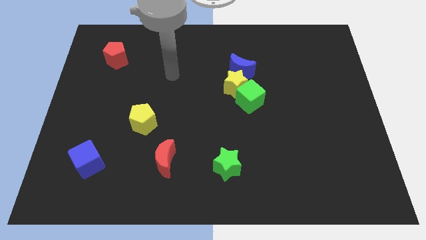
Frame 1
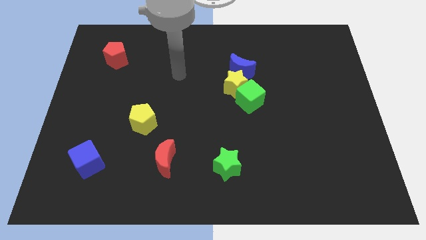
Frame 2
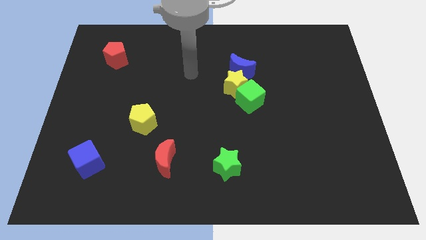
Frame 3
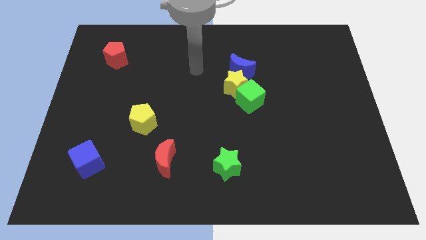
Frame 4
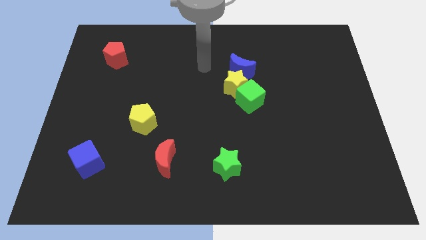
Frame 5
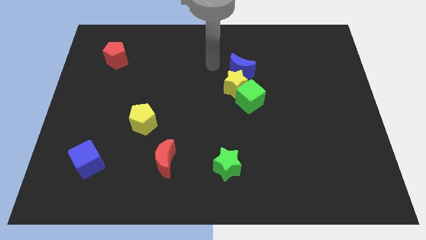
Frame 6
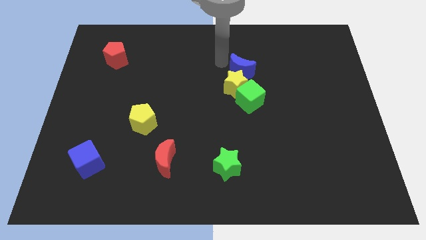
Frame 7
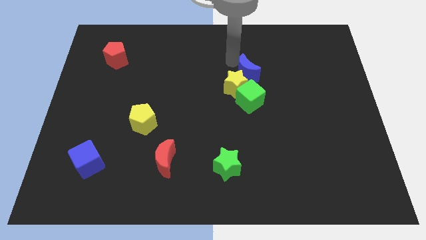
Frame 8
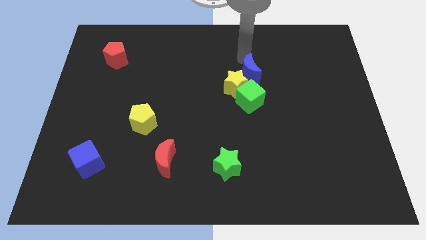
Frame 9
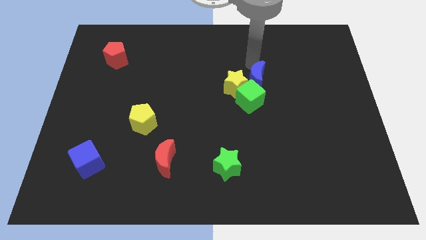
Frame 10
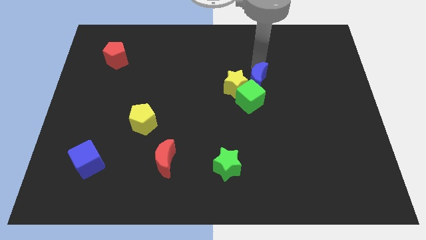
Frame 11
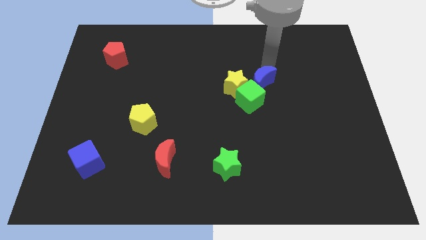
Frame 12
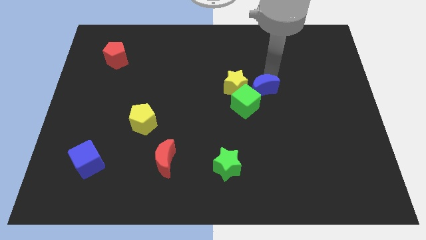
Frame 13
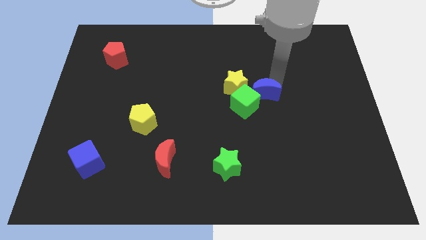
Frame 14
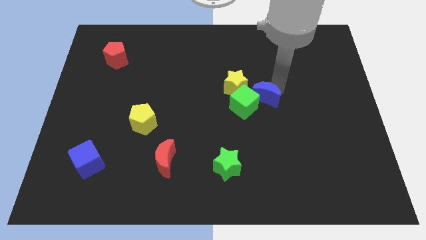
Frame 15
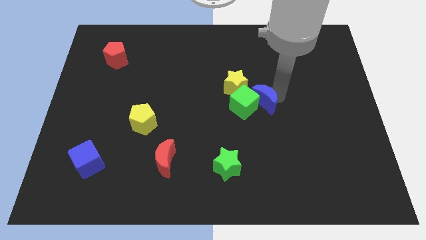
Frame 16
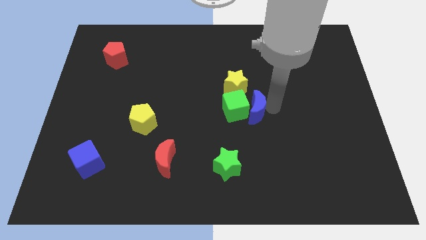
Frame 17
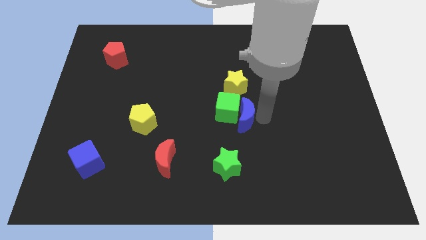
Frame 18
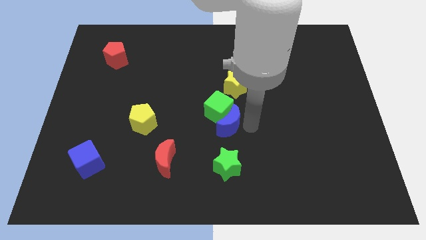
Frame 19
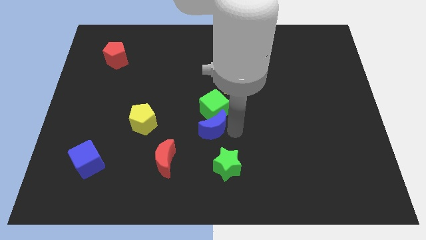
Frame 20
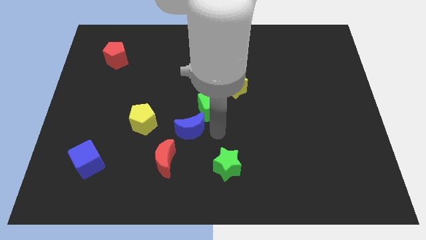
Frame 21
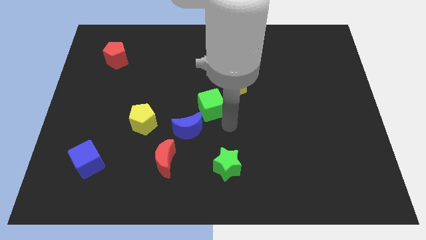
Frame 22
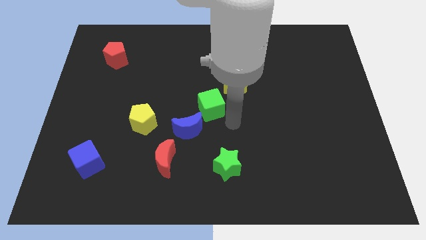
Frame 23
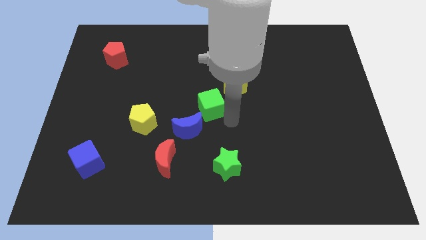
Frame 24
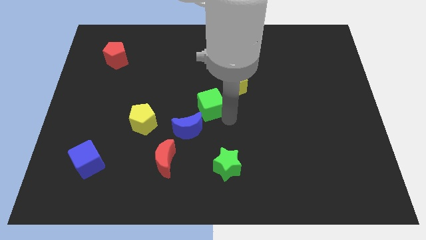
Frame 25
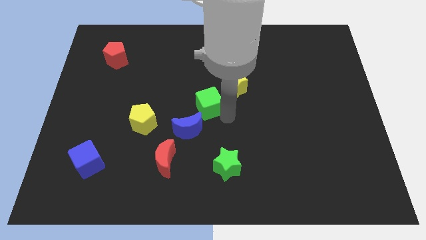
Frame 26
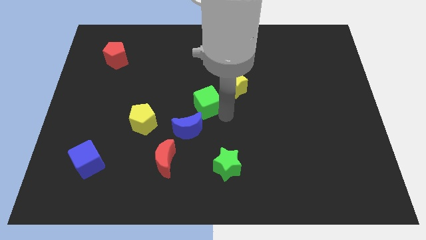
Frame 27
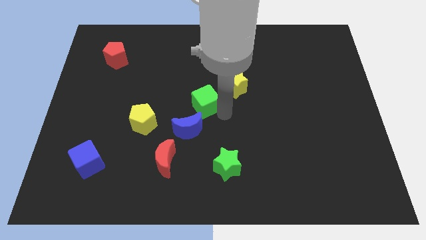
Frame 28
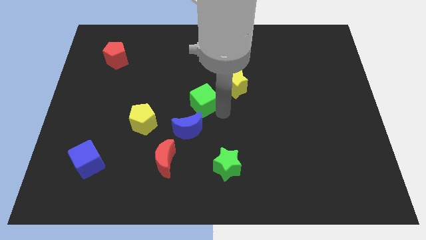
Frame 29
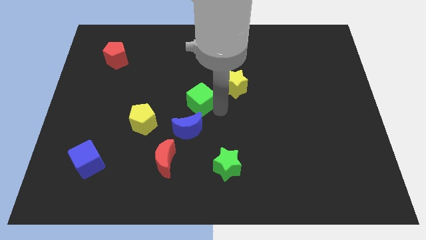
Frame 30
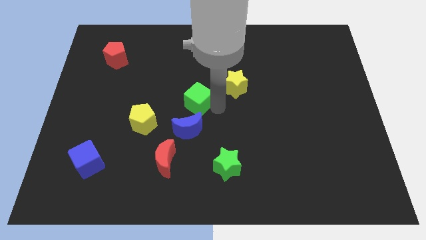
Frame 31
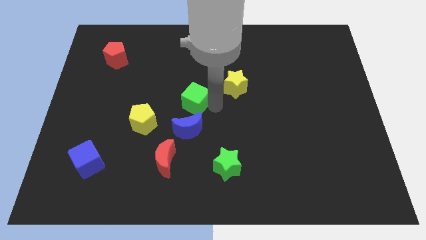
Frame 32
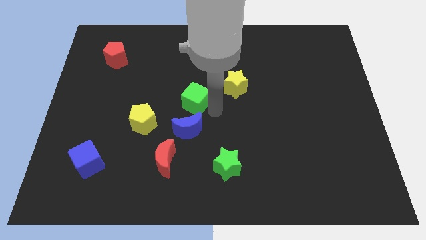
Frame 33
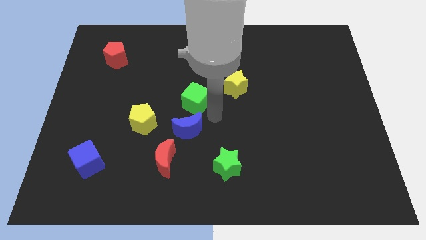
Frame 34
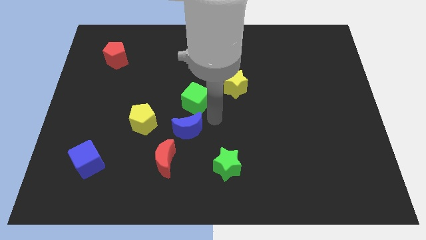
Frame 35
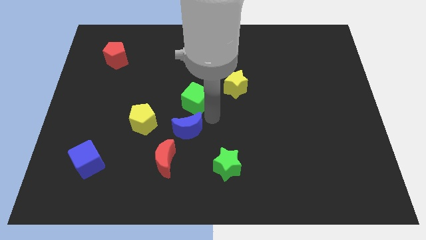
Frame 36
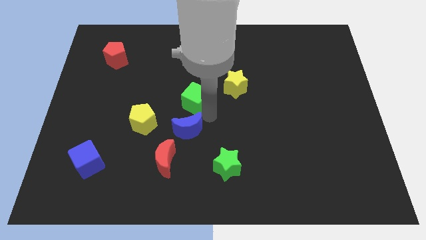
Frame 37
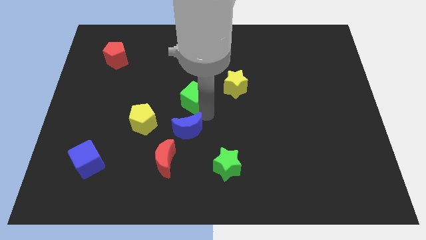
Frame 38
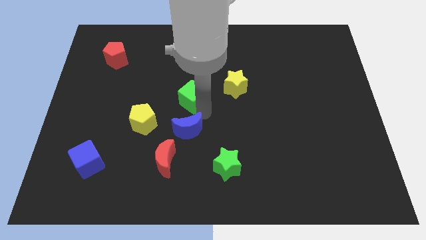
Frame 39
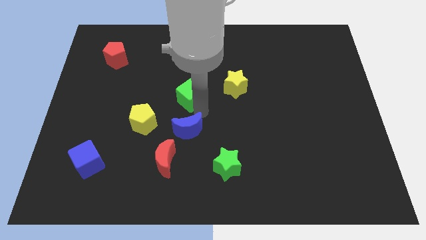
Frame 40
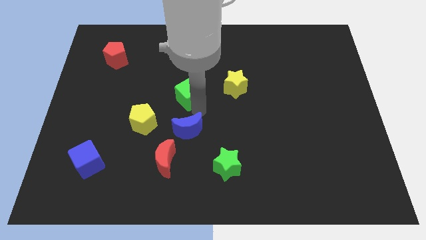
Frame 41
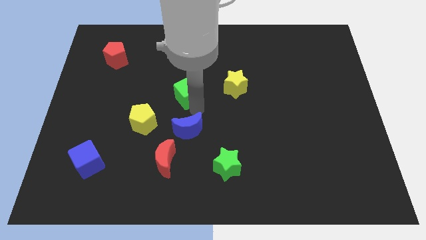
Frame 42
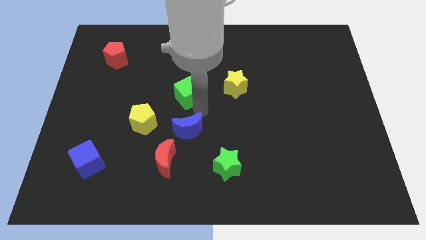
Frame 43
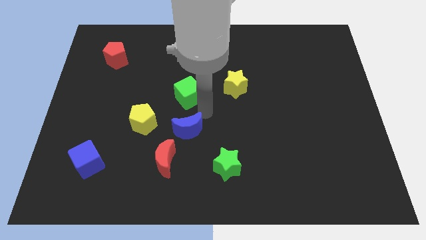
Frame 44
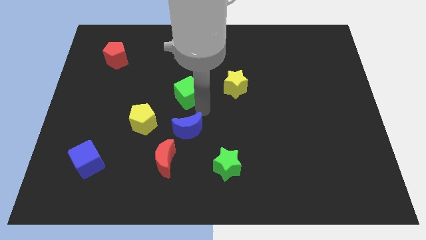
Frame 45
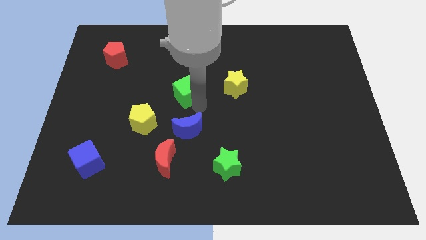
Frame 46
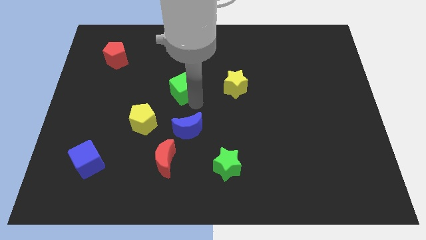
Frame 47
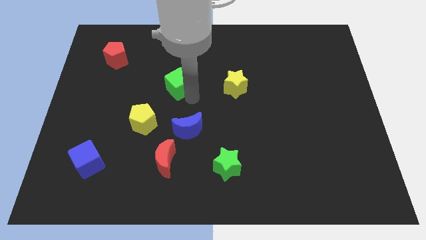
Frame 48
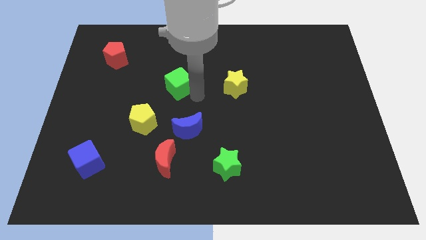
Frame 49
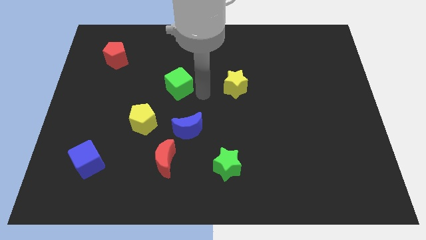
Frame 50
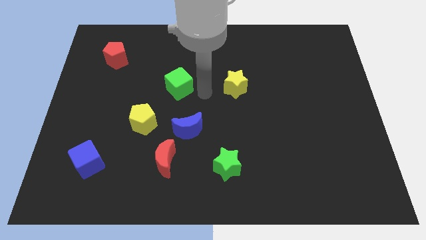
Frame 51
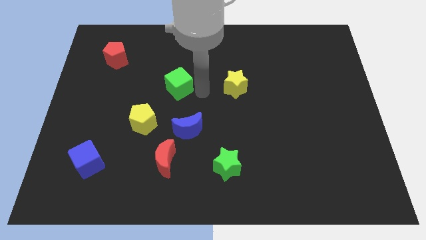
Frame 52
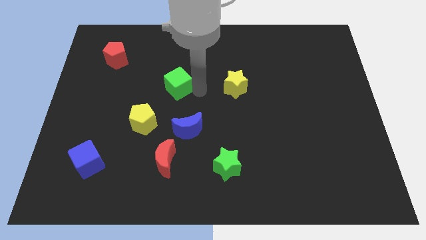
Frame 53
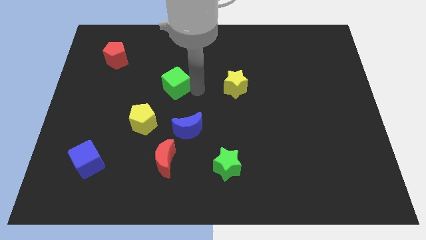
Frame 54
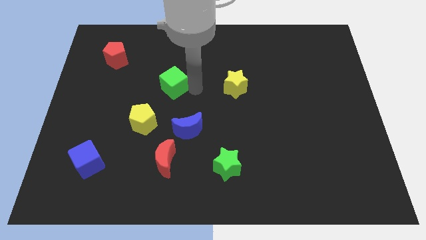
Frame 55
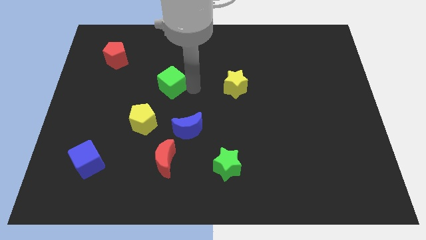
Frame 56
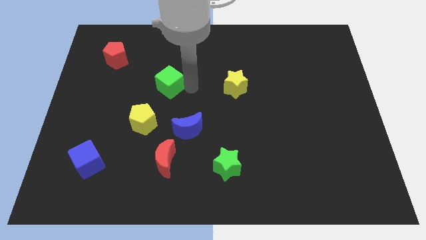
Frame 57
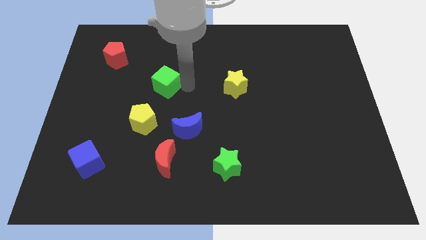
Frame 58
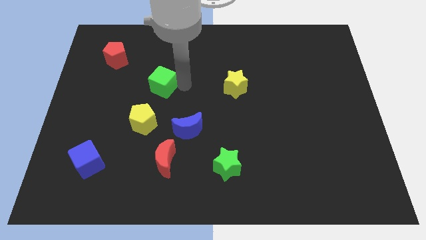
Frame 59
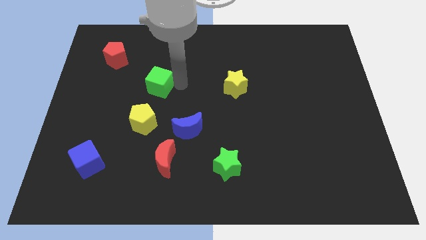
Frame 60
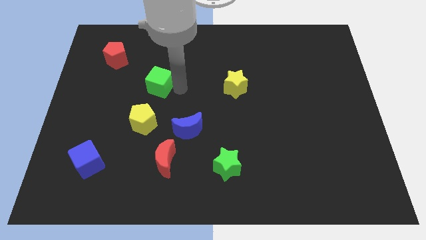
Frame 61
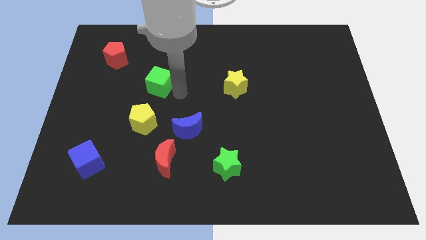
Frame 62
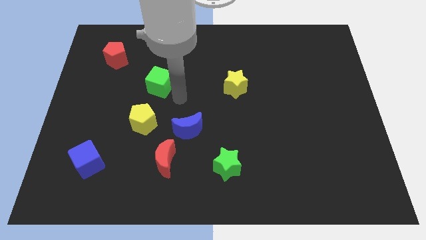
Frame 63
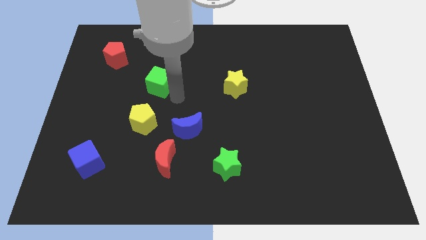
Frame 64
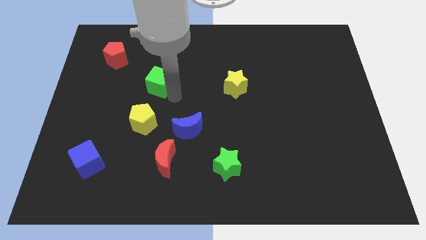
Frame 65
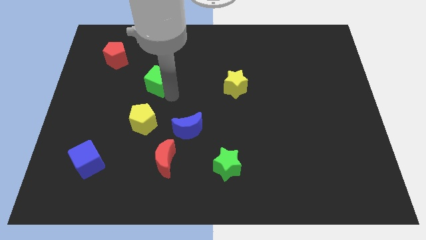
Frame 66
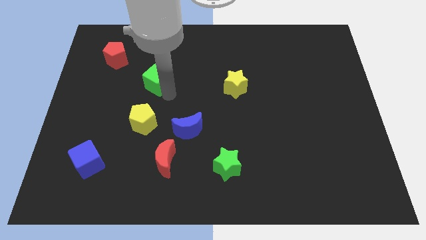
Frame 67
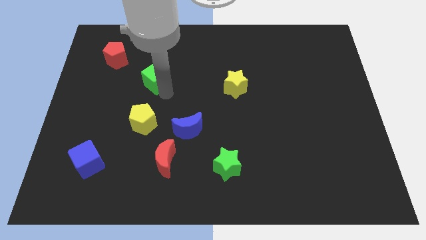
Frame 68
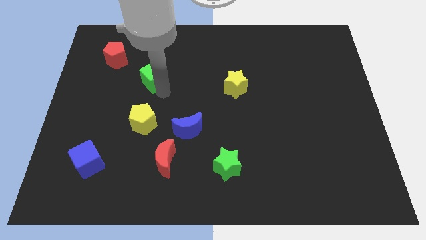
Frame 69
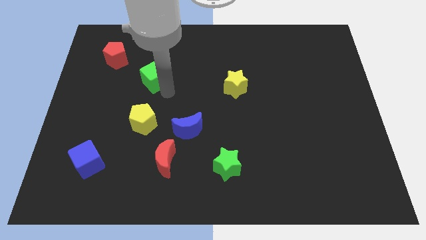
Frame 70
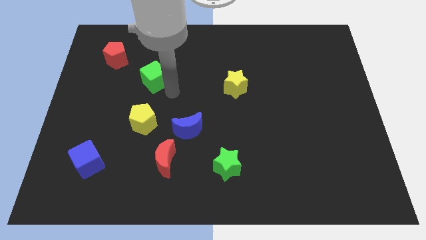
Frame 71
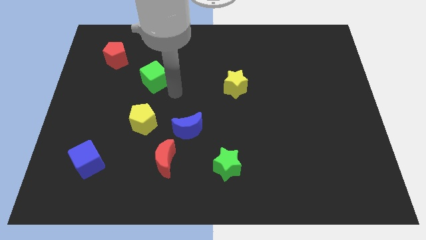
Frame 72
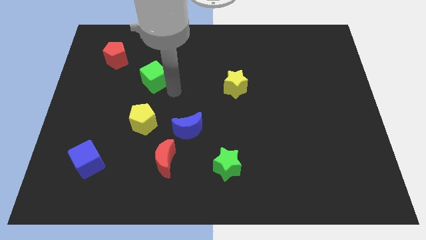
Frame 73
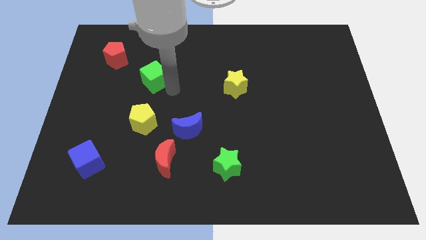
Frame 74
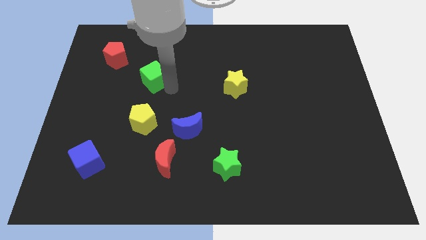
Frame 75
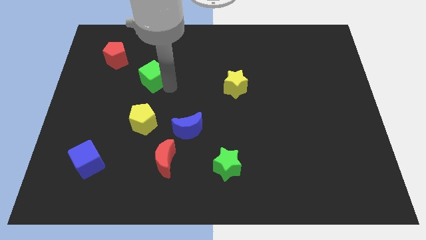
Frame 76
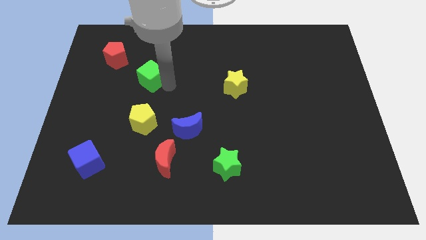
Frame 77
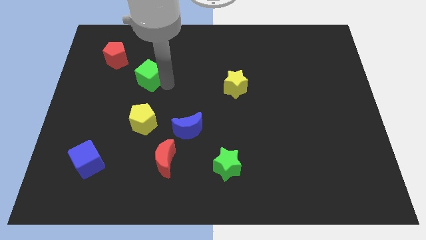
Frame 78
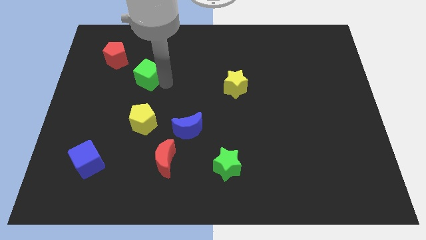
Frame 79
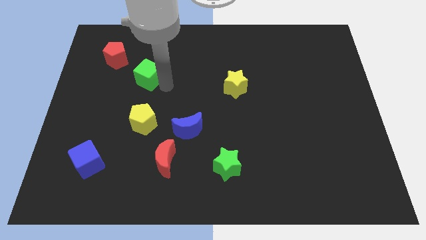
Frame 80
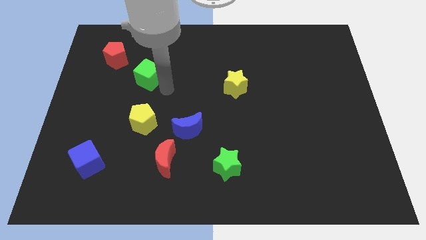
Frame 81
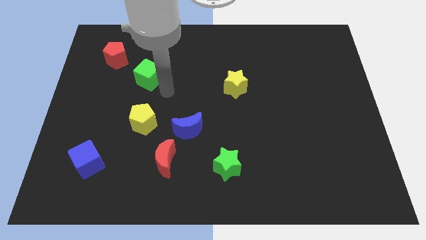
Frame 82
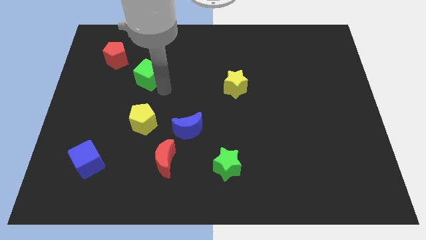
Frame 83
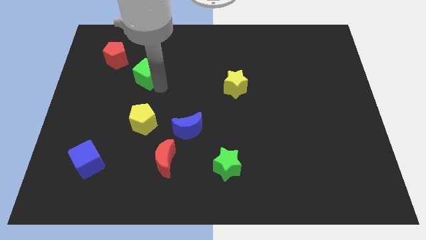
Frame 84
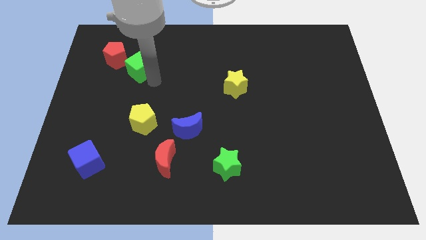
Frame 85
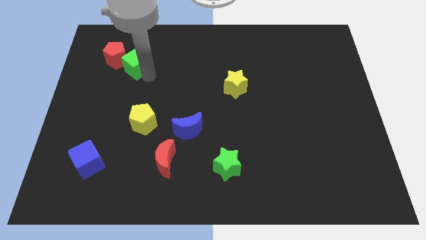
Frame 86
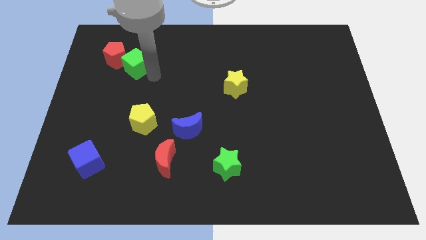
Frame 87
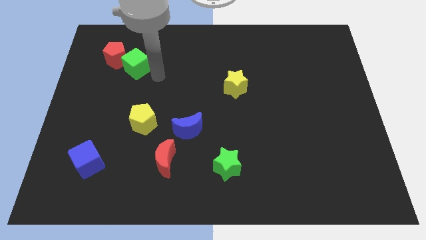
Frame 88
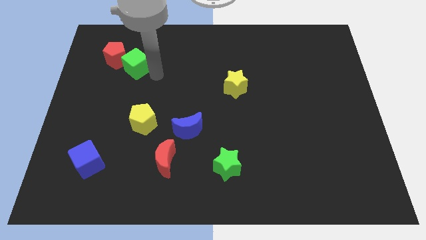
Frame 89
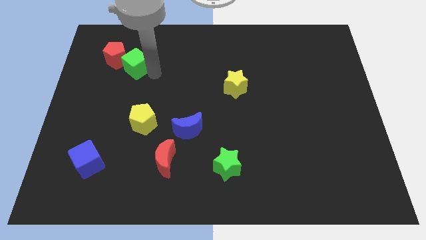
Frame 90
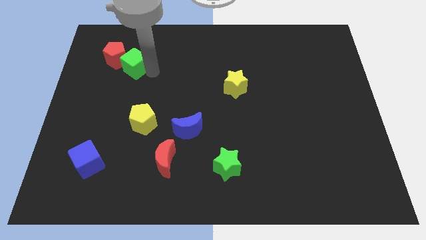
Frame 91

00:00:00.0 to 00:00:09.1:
put the green cube close to the red pentagon
